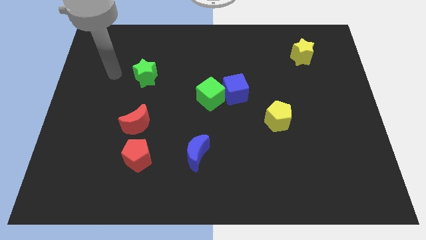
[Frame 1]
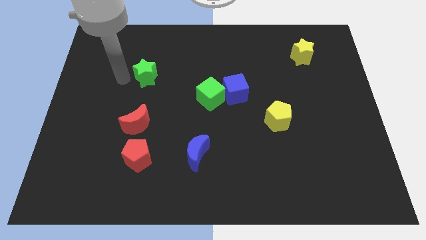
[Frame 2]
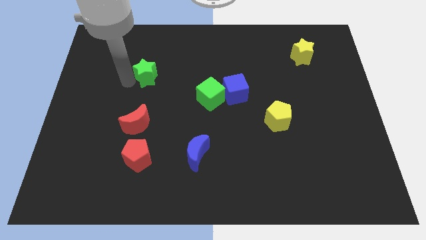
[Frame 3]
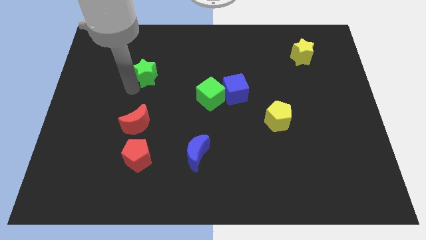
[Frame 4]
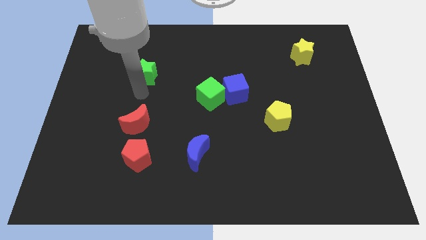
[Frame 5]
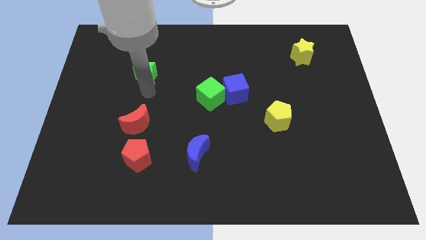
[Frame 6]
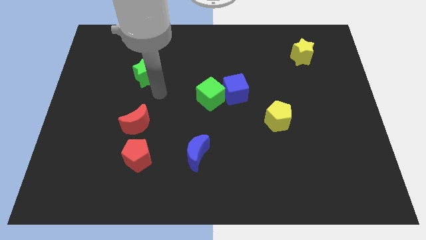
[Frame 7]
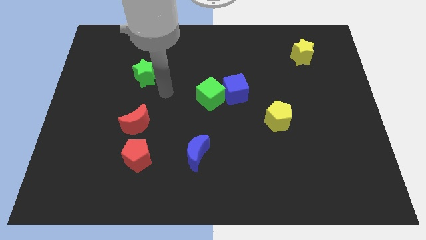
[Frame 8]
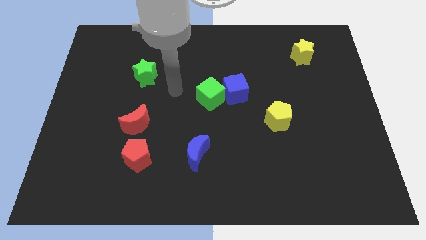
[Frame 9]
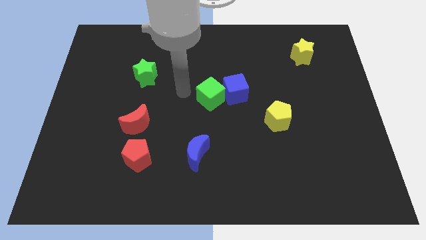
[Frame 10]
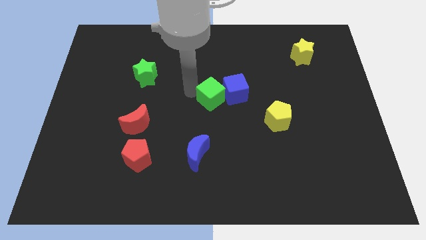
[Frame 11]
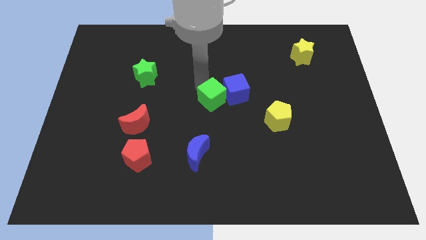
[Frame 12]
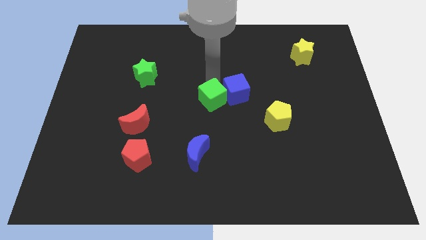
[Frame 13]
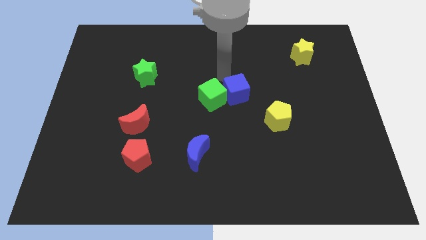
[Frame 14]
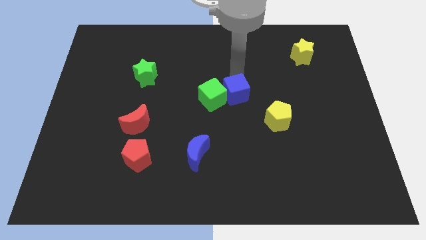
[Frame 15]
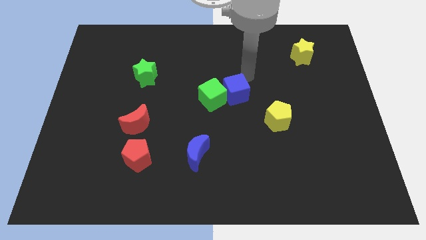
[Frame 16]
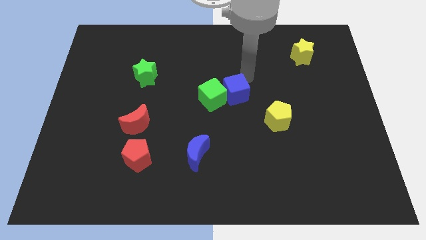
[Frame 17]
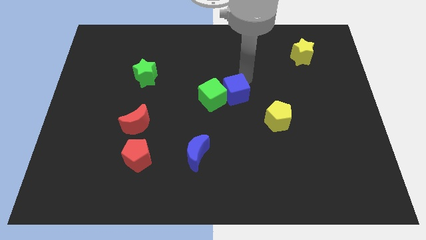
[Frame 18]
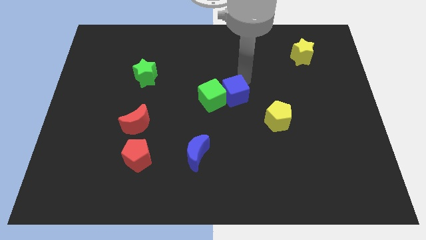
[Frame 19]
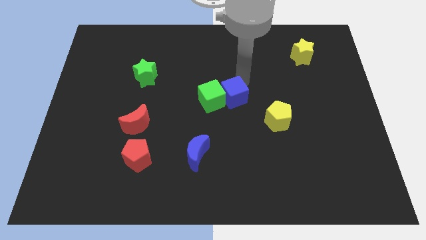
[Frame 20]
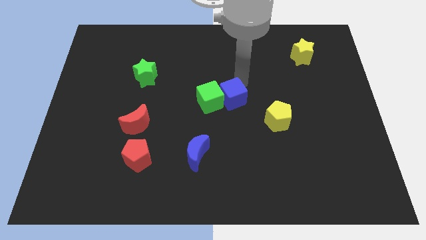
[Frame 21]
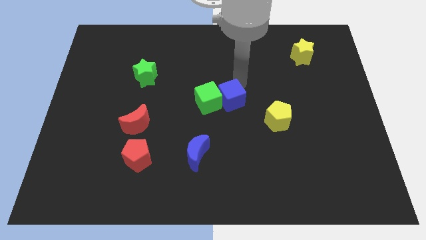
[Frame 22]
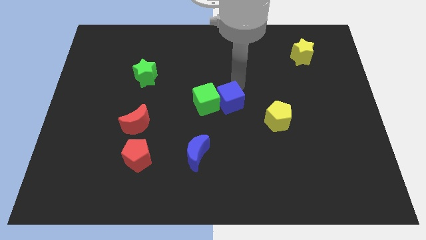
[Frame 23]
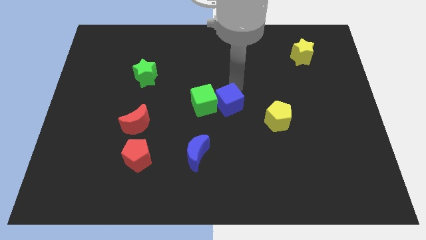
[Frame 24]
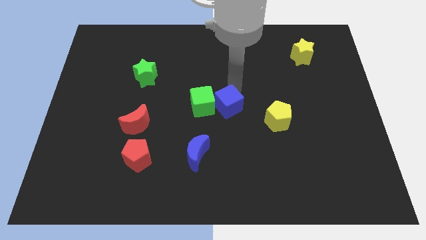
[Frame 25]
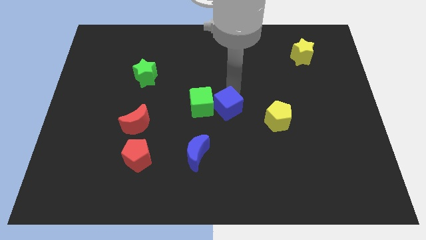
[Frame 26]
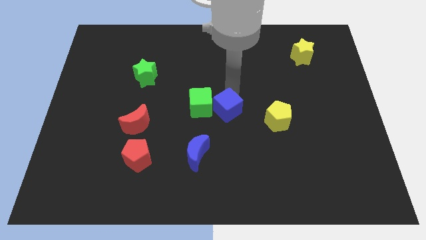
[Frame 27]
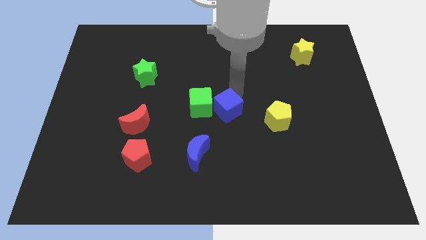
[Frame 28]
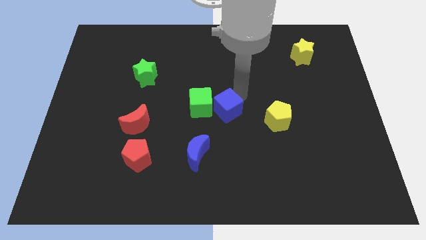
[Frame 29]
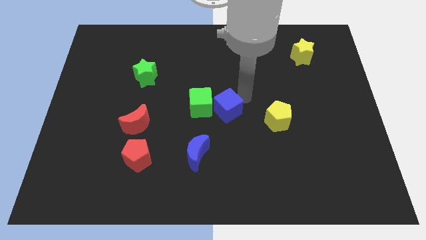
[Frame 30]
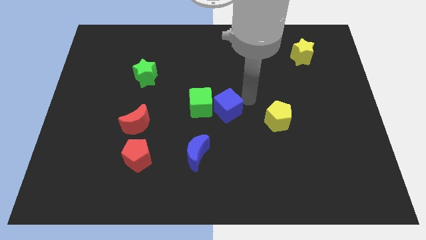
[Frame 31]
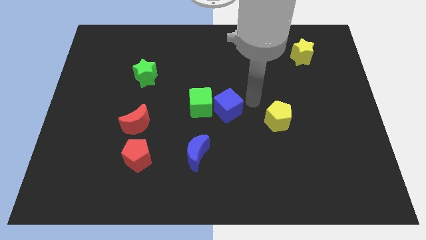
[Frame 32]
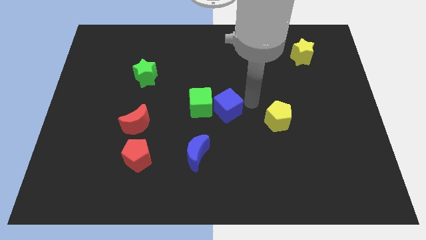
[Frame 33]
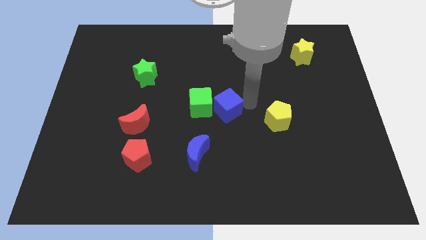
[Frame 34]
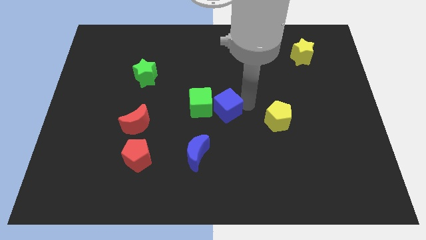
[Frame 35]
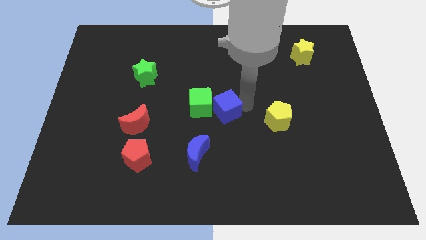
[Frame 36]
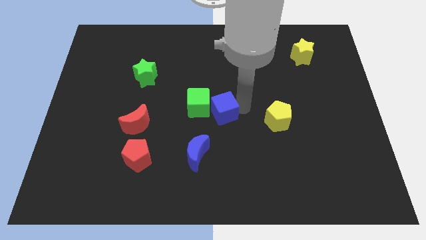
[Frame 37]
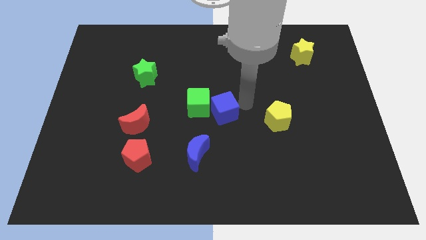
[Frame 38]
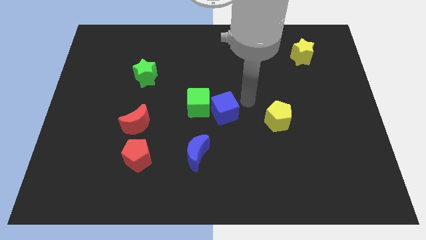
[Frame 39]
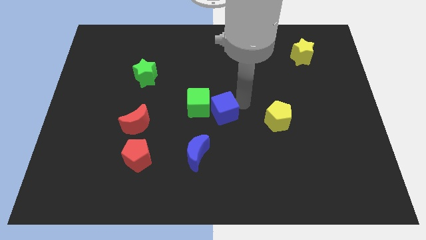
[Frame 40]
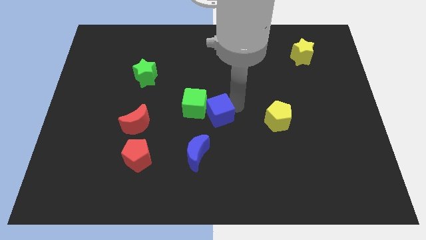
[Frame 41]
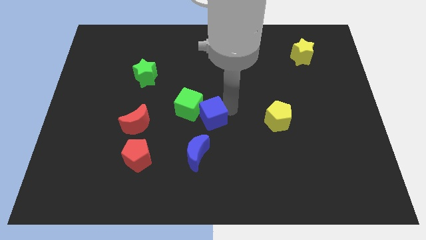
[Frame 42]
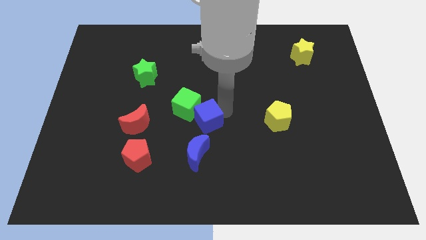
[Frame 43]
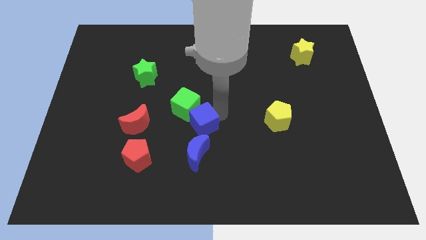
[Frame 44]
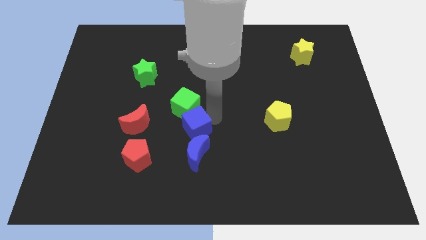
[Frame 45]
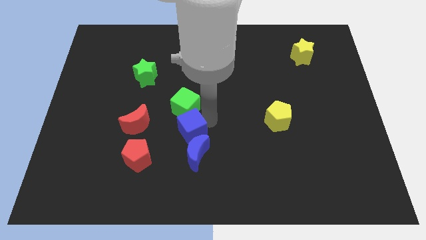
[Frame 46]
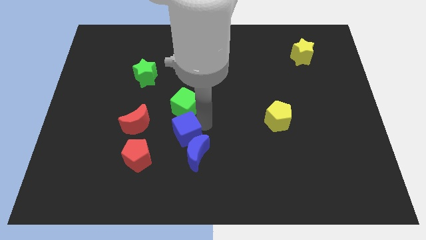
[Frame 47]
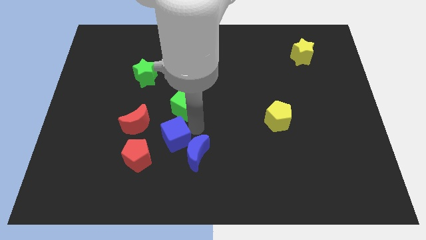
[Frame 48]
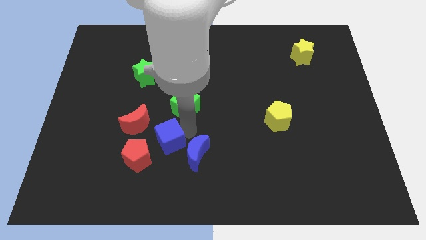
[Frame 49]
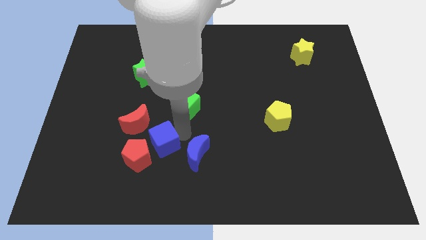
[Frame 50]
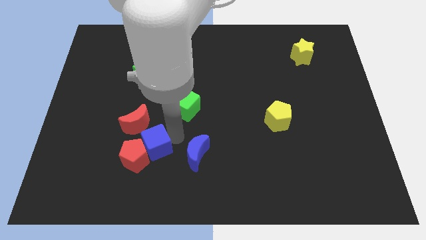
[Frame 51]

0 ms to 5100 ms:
push the blue cube towards the red pentagon

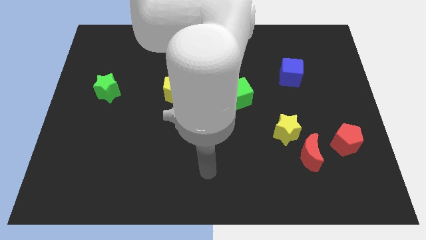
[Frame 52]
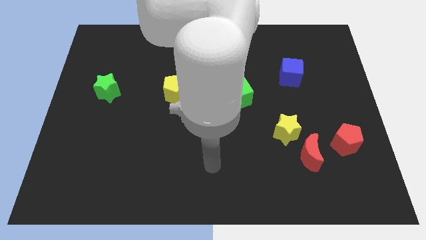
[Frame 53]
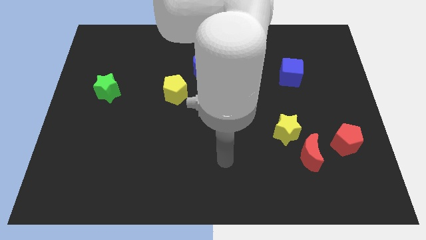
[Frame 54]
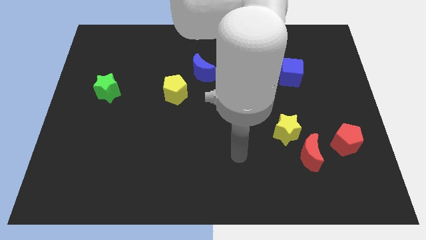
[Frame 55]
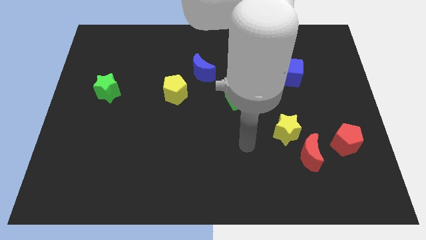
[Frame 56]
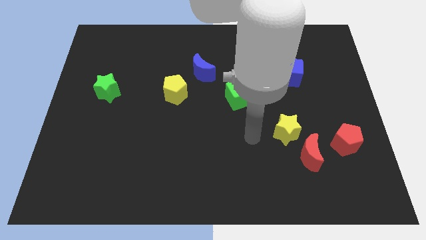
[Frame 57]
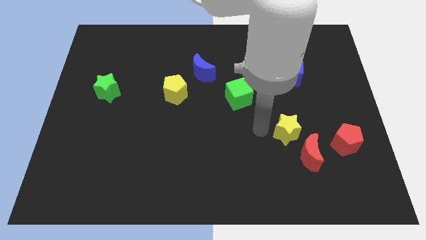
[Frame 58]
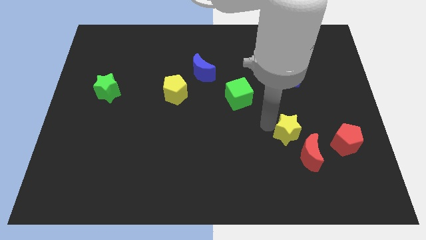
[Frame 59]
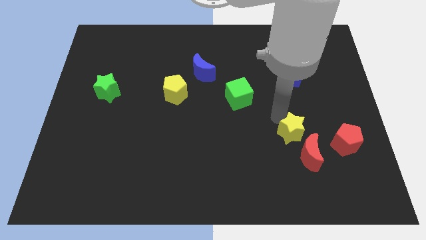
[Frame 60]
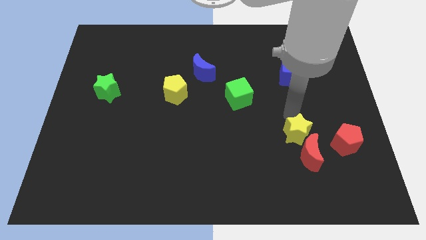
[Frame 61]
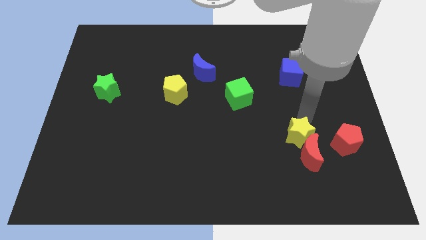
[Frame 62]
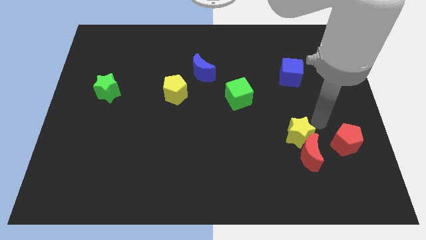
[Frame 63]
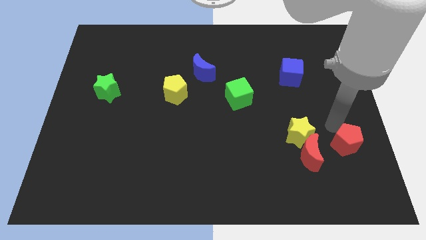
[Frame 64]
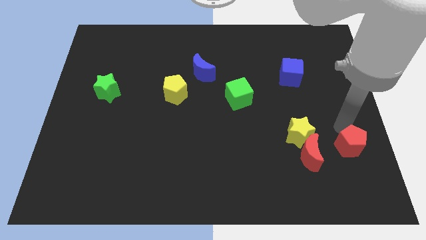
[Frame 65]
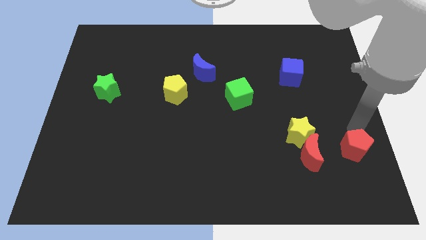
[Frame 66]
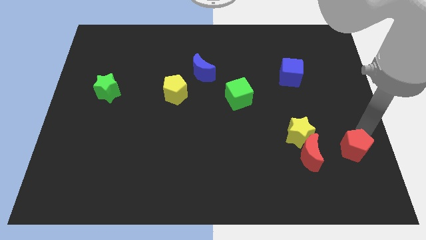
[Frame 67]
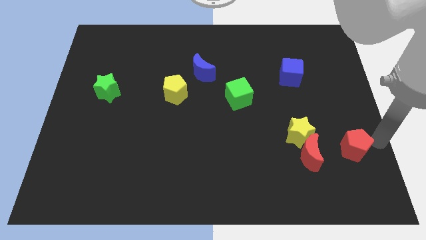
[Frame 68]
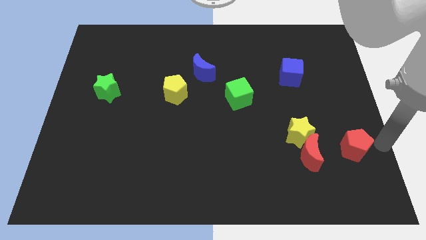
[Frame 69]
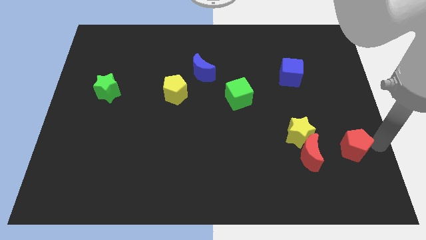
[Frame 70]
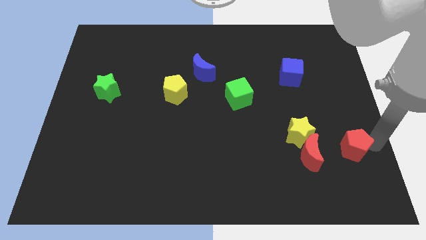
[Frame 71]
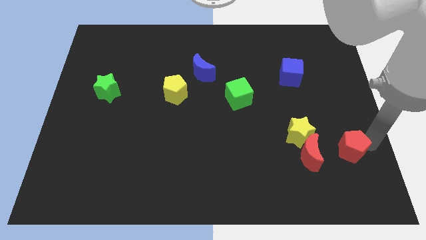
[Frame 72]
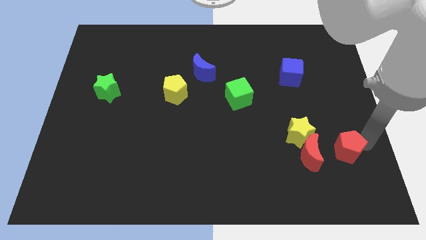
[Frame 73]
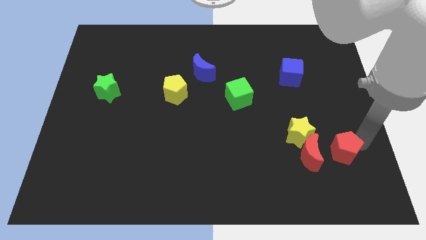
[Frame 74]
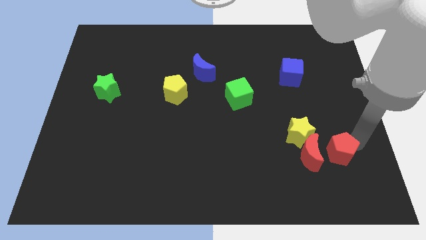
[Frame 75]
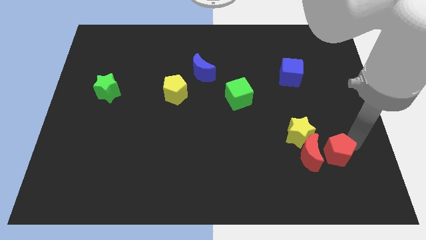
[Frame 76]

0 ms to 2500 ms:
slide the red pentagon to the red moon

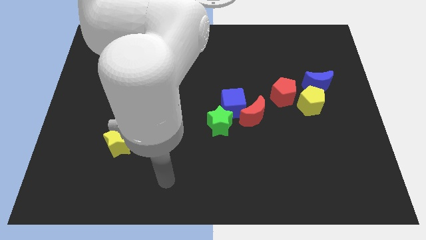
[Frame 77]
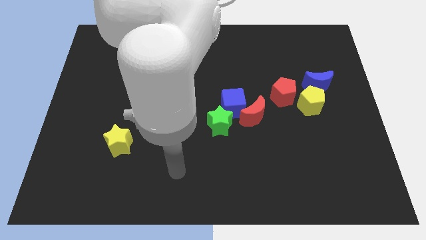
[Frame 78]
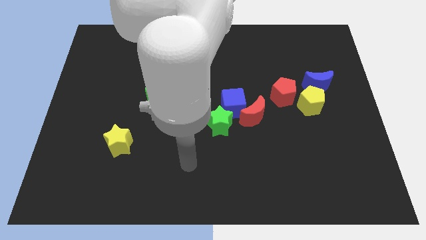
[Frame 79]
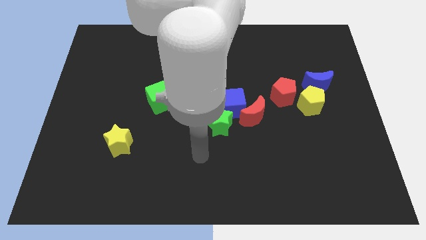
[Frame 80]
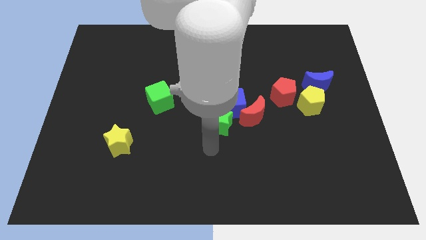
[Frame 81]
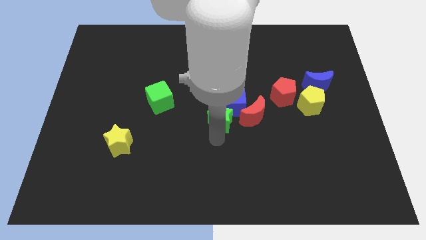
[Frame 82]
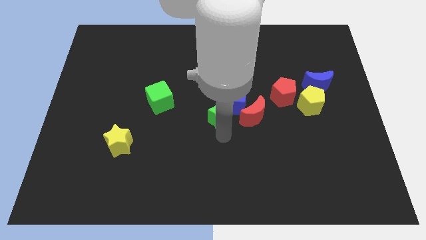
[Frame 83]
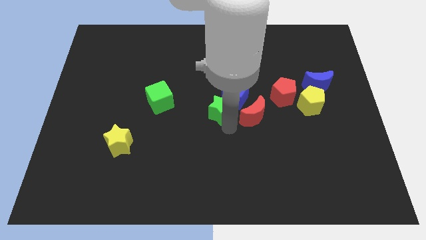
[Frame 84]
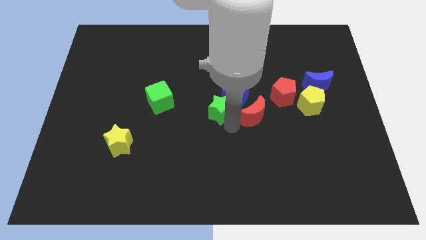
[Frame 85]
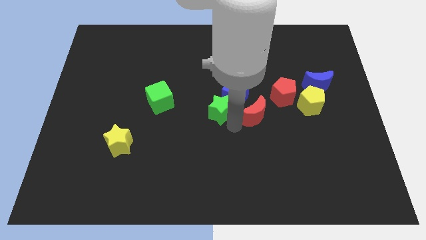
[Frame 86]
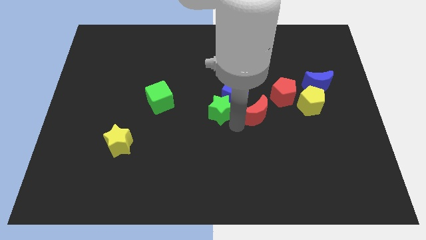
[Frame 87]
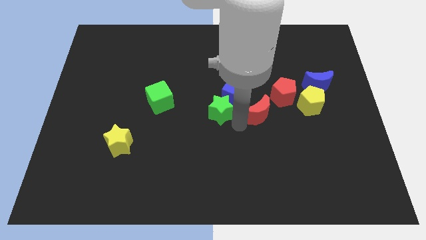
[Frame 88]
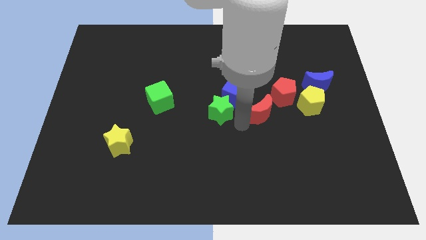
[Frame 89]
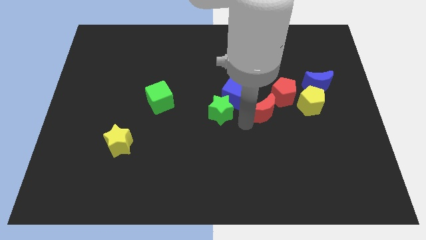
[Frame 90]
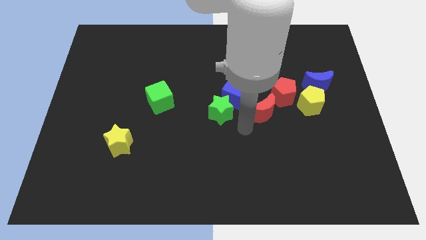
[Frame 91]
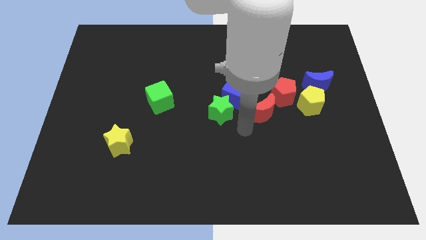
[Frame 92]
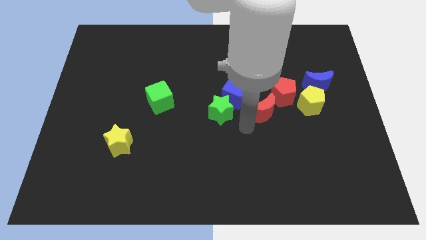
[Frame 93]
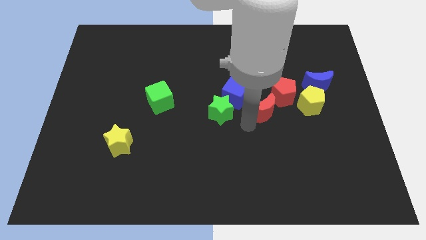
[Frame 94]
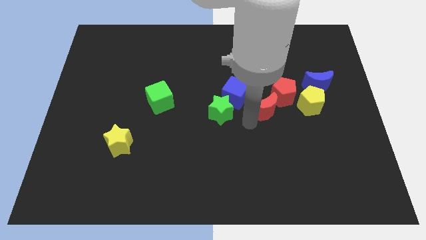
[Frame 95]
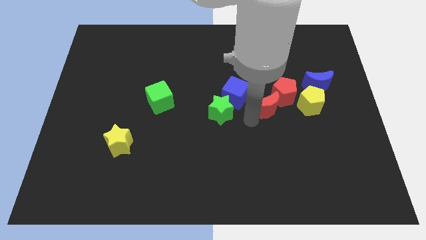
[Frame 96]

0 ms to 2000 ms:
slide the red moon to the red pentagon
